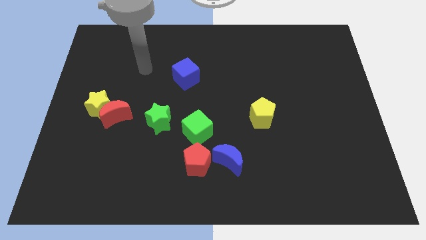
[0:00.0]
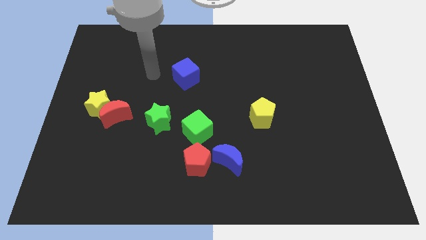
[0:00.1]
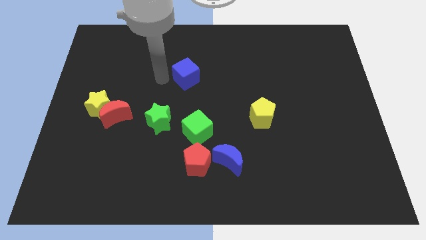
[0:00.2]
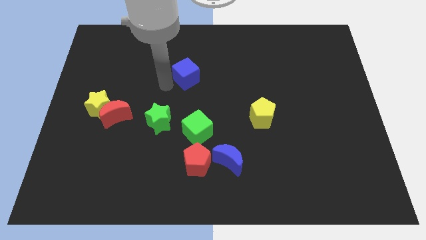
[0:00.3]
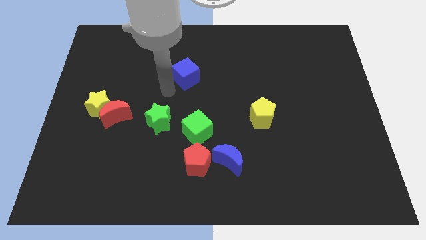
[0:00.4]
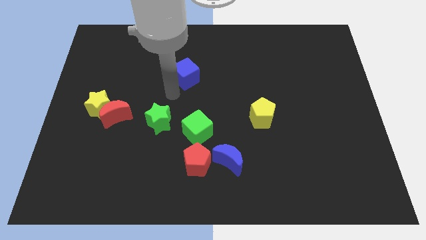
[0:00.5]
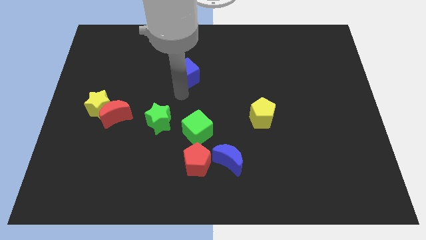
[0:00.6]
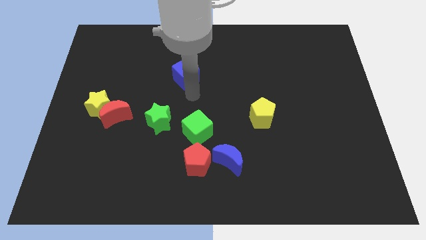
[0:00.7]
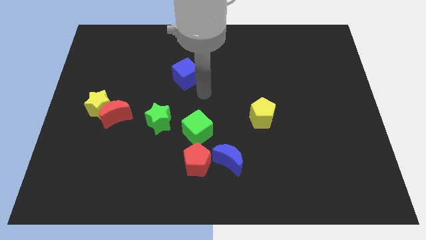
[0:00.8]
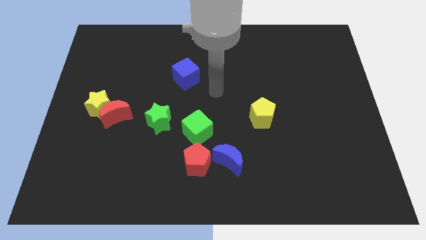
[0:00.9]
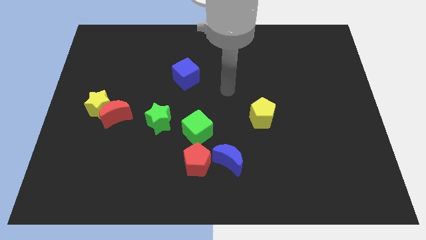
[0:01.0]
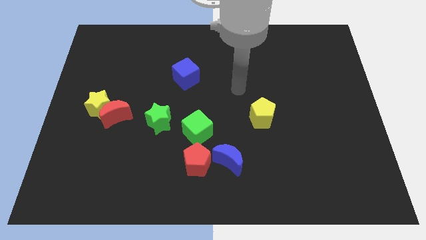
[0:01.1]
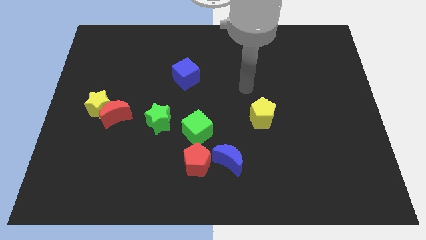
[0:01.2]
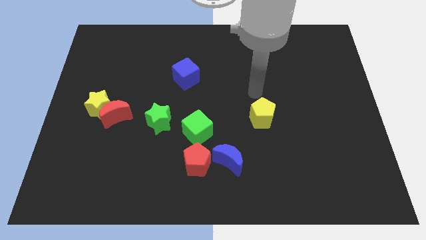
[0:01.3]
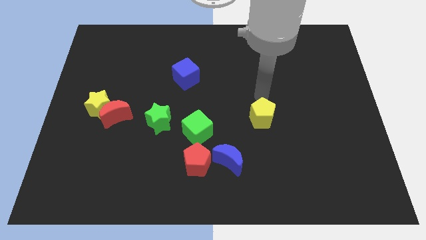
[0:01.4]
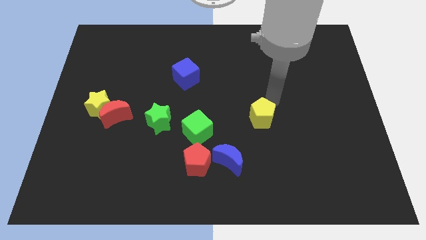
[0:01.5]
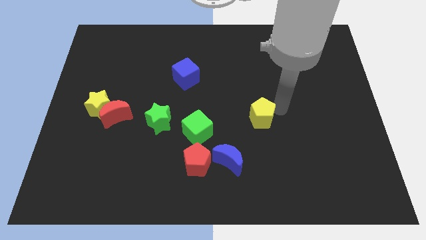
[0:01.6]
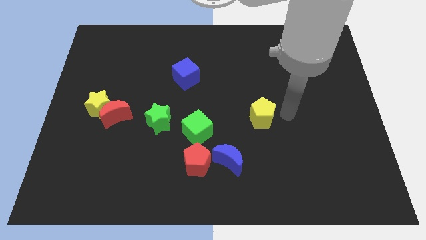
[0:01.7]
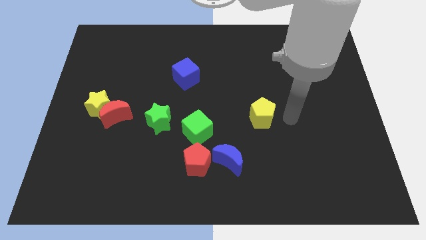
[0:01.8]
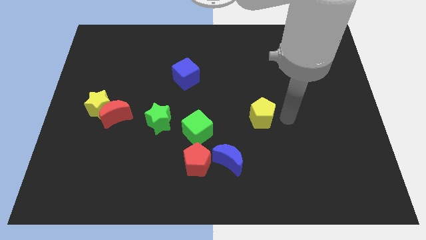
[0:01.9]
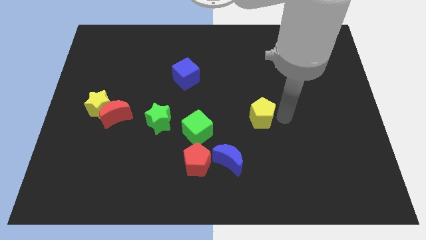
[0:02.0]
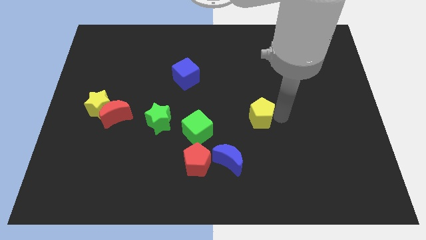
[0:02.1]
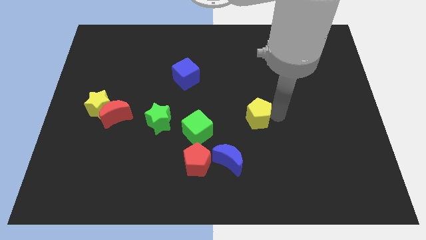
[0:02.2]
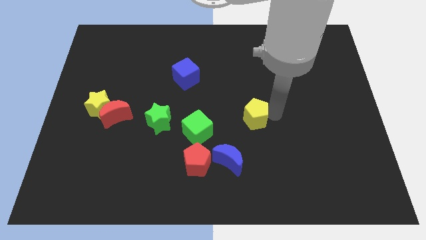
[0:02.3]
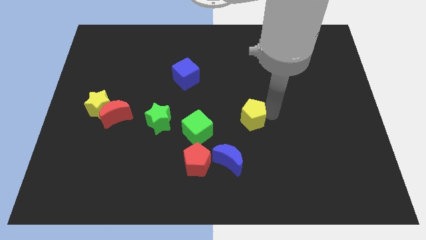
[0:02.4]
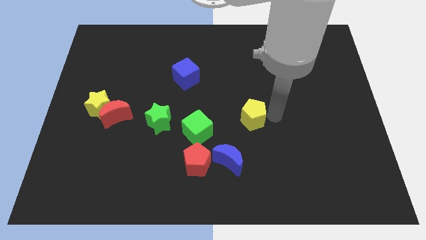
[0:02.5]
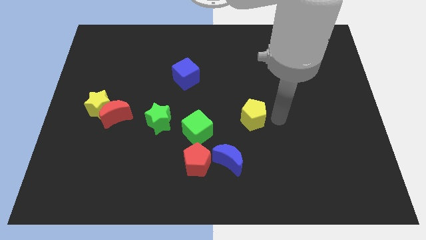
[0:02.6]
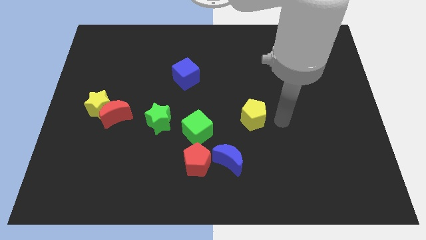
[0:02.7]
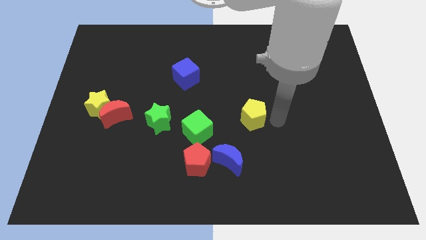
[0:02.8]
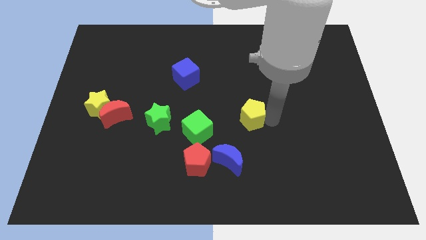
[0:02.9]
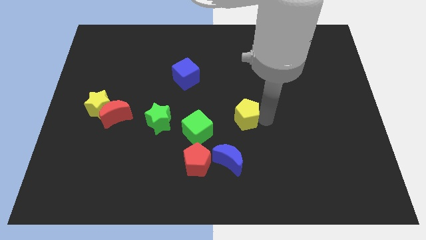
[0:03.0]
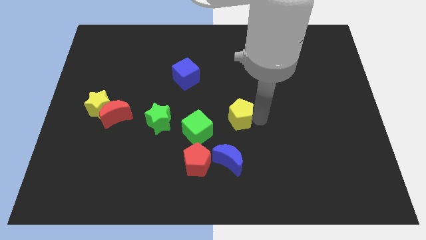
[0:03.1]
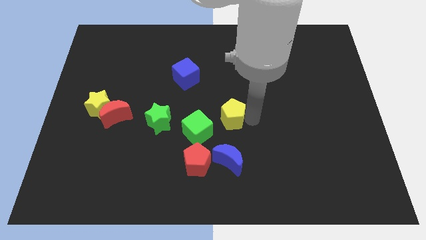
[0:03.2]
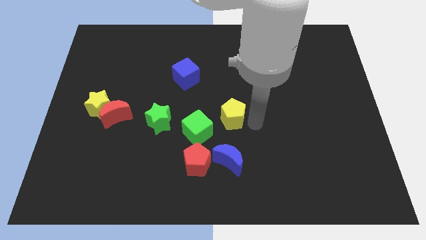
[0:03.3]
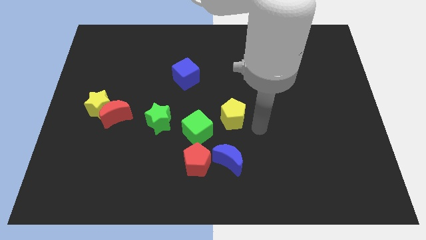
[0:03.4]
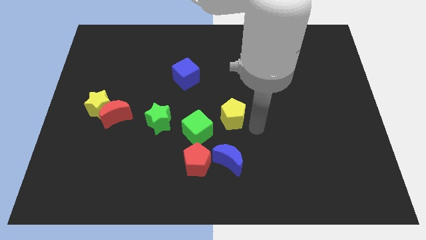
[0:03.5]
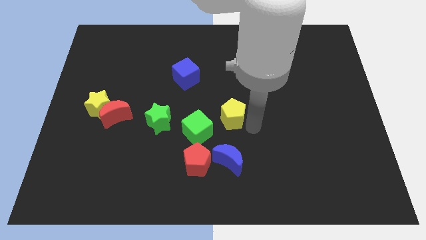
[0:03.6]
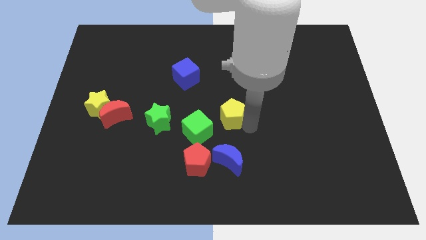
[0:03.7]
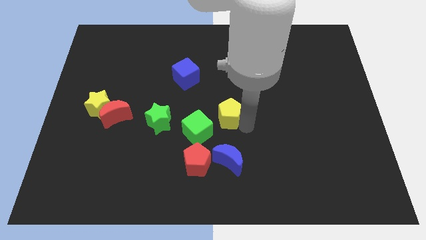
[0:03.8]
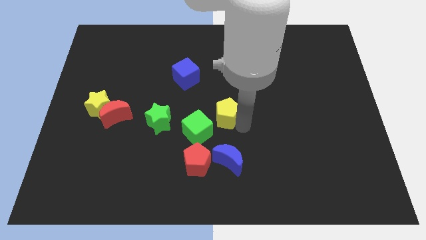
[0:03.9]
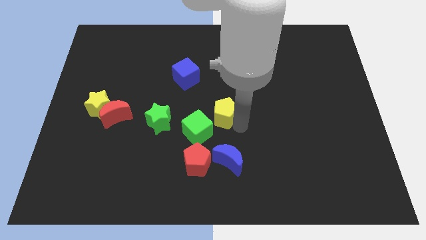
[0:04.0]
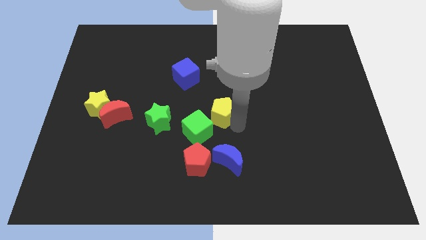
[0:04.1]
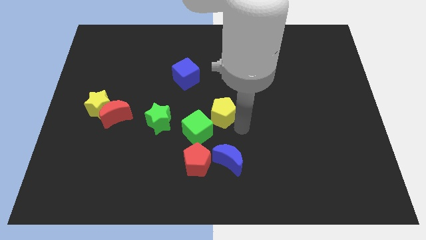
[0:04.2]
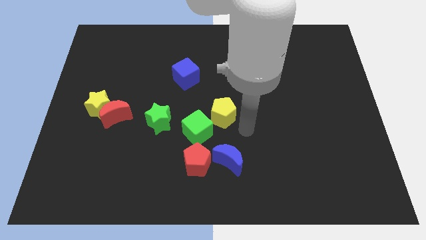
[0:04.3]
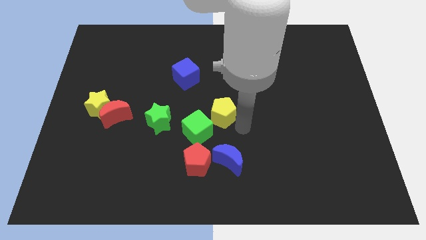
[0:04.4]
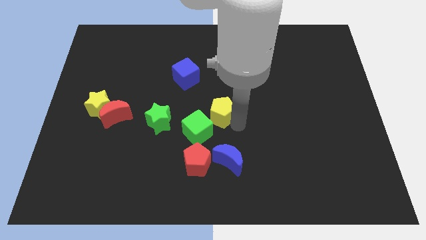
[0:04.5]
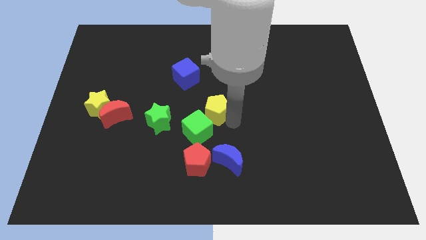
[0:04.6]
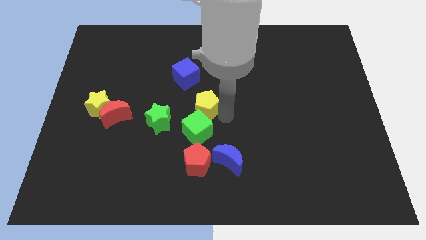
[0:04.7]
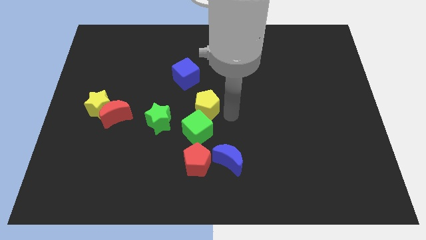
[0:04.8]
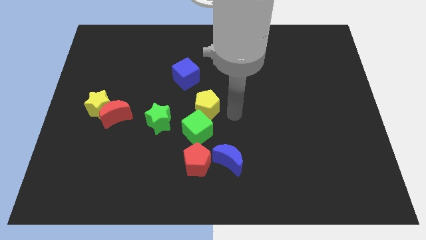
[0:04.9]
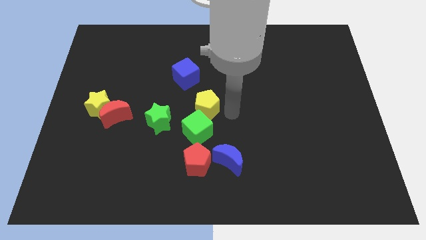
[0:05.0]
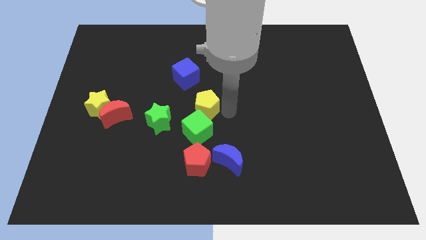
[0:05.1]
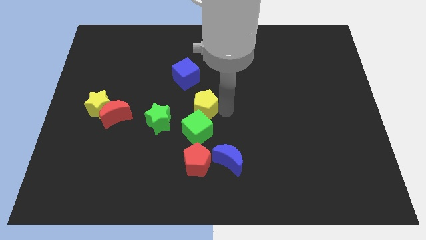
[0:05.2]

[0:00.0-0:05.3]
move the yellow pentagon to the top right side of the green star

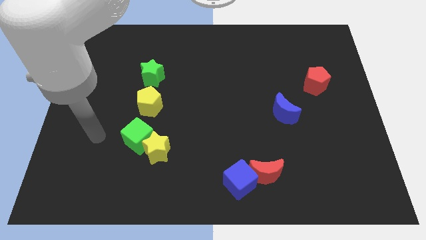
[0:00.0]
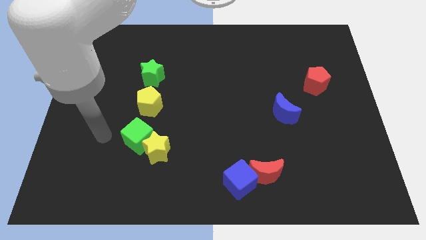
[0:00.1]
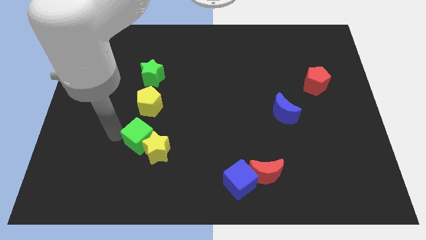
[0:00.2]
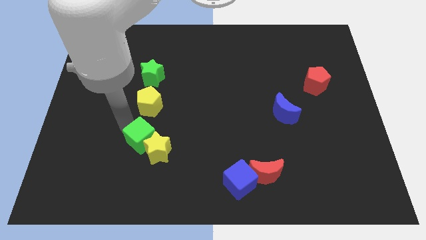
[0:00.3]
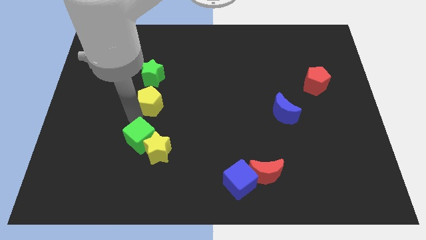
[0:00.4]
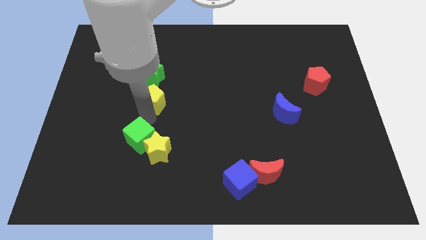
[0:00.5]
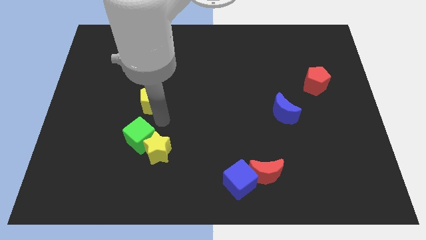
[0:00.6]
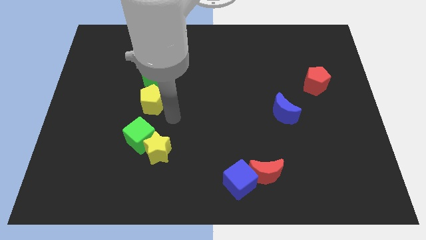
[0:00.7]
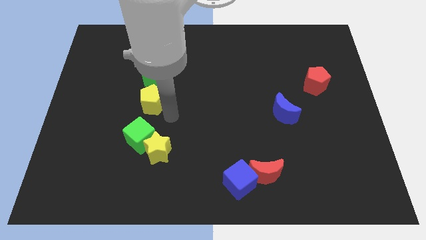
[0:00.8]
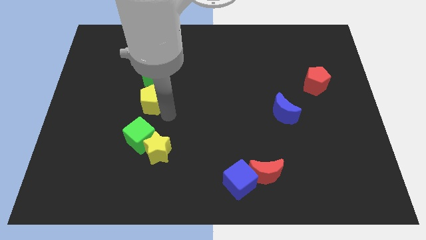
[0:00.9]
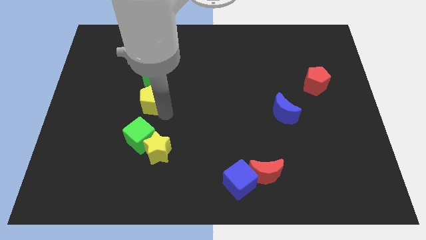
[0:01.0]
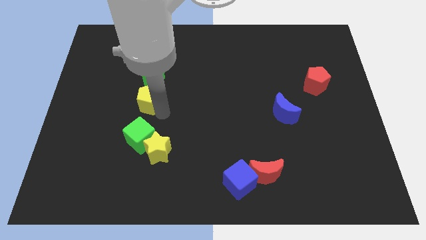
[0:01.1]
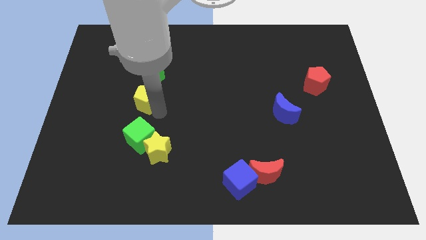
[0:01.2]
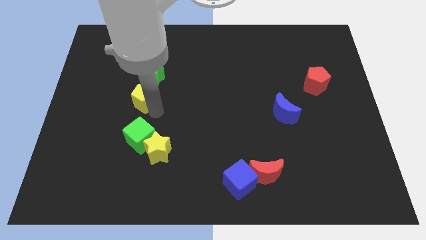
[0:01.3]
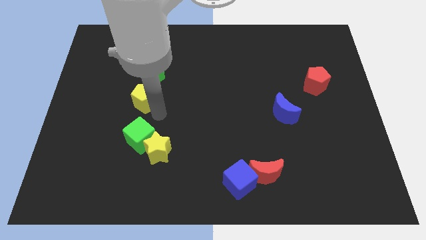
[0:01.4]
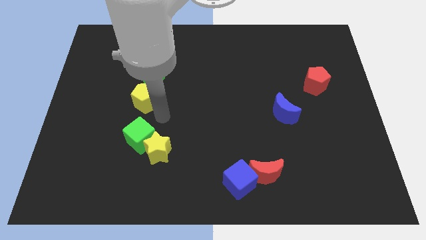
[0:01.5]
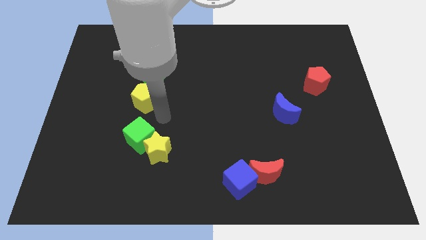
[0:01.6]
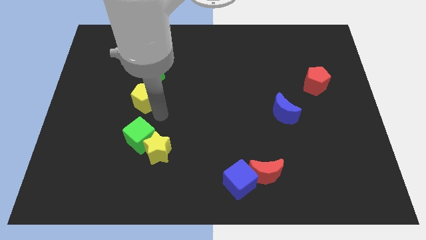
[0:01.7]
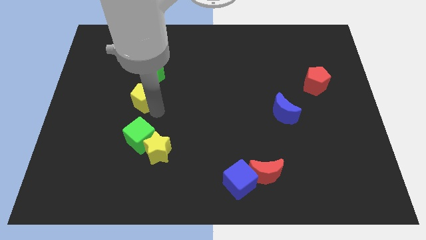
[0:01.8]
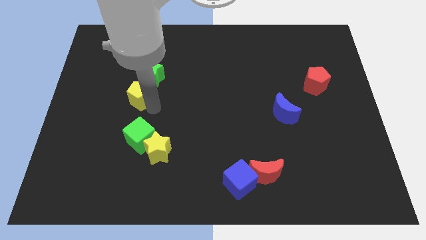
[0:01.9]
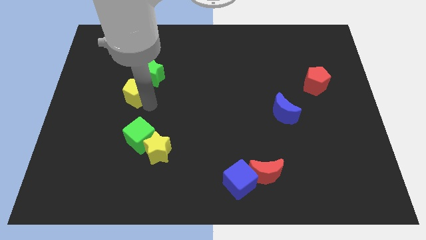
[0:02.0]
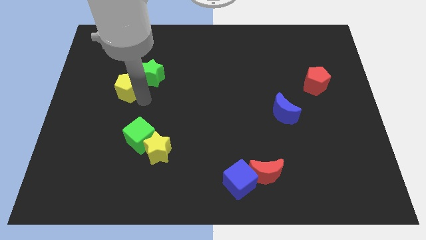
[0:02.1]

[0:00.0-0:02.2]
slide the yellow pentagon left of the green star
